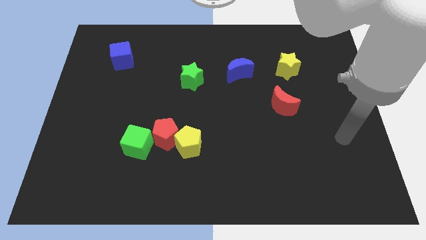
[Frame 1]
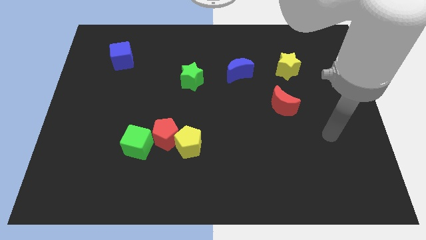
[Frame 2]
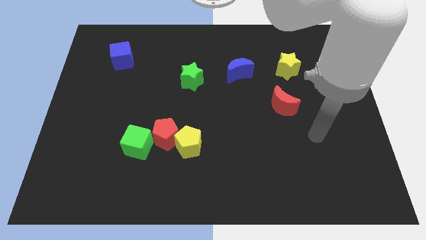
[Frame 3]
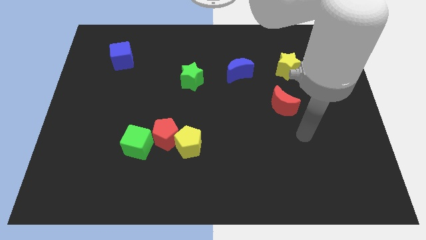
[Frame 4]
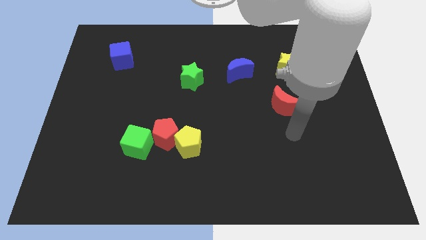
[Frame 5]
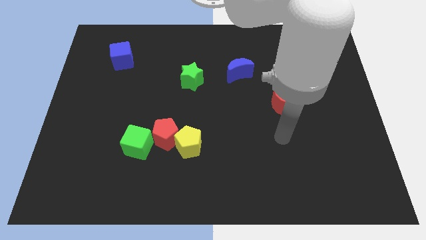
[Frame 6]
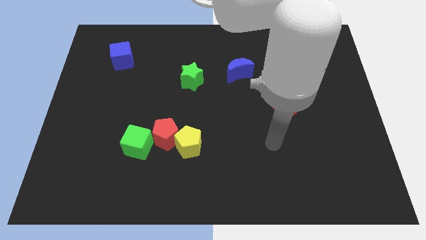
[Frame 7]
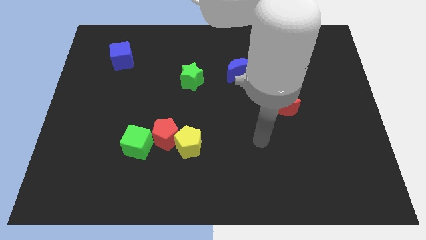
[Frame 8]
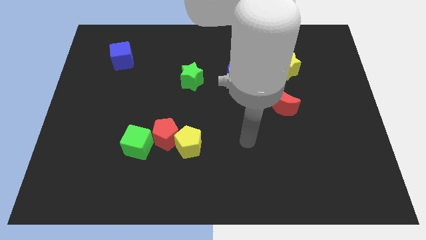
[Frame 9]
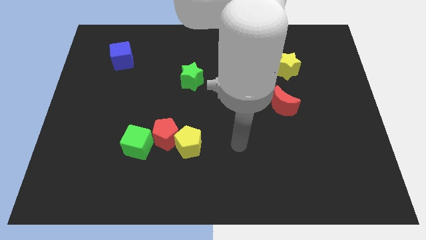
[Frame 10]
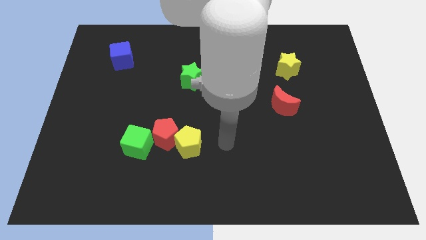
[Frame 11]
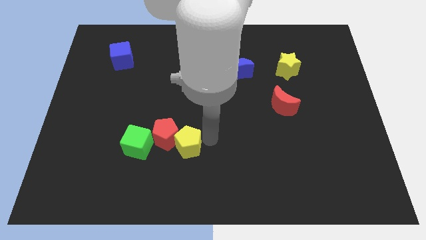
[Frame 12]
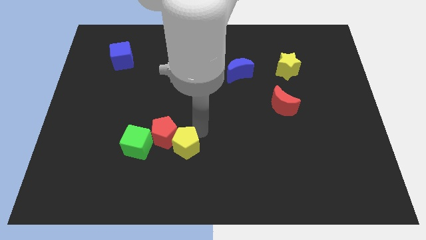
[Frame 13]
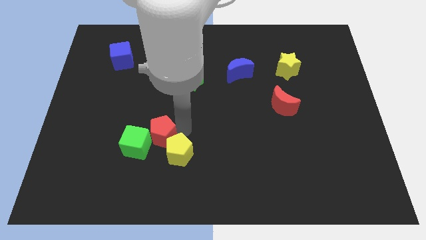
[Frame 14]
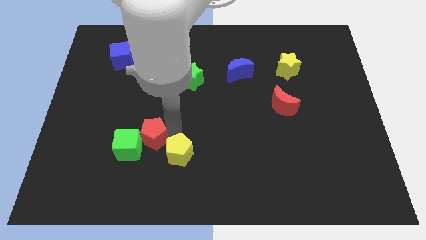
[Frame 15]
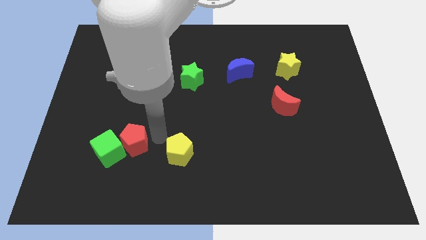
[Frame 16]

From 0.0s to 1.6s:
separate the yellow pentagon from the red pentagon

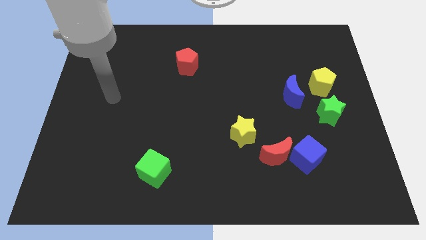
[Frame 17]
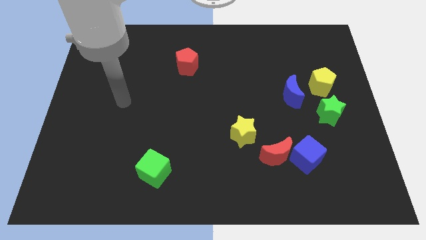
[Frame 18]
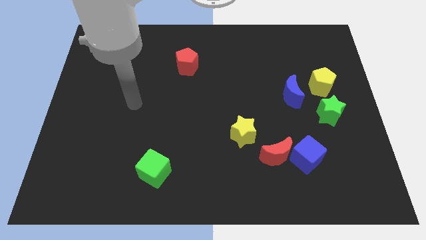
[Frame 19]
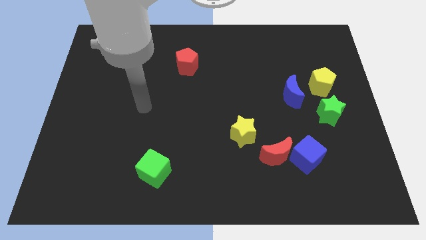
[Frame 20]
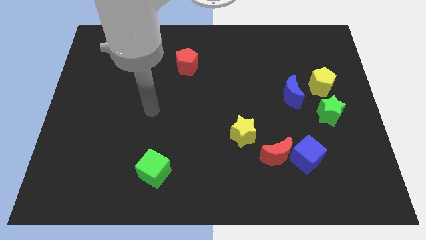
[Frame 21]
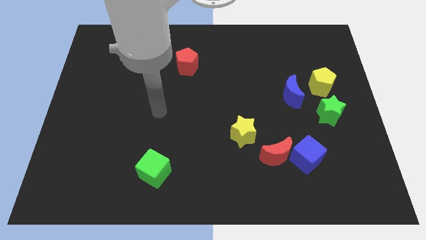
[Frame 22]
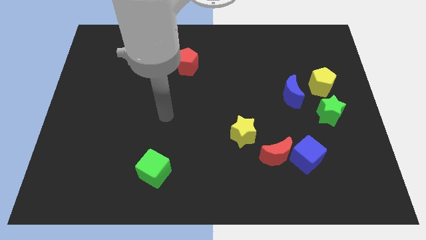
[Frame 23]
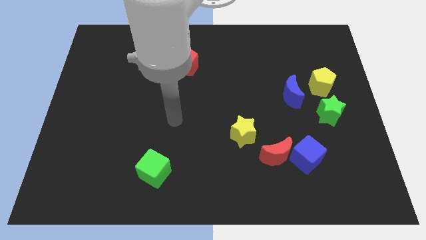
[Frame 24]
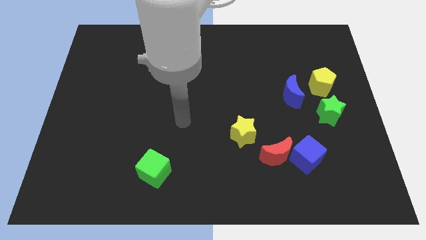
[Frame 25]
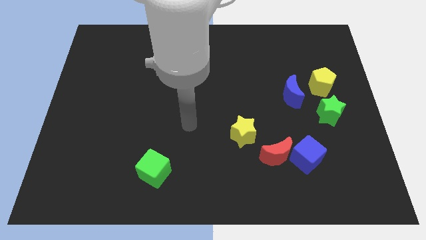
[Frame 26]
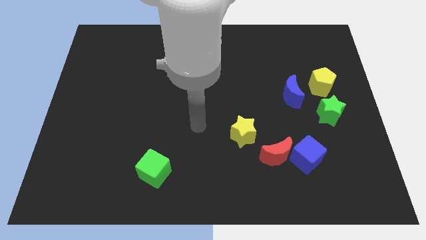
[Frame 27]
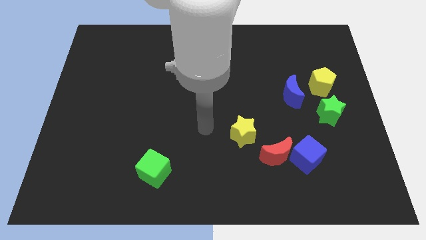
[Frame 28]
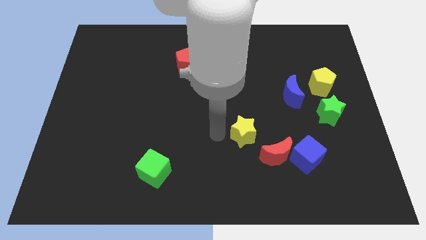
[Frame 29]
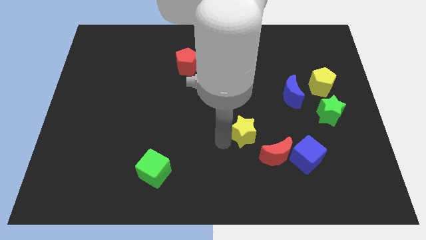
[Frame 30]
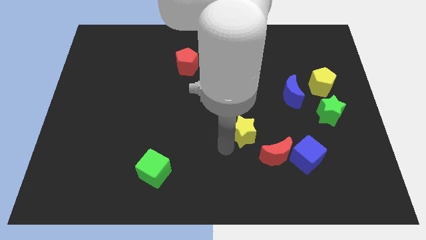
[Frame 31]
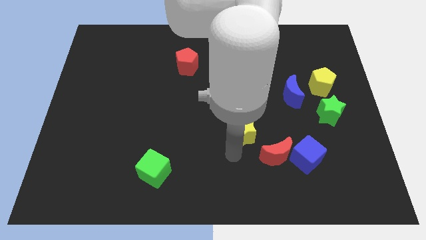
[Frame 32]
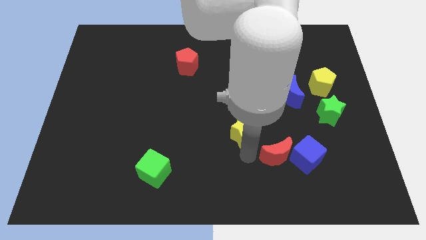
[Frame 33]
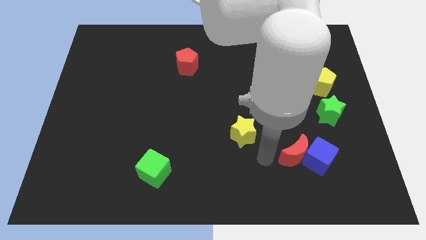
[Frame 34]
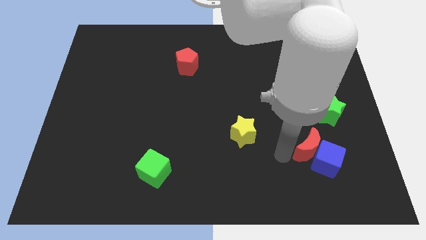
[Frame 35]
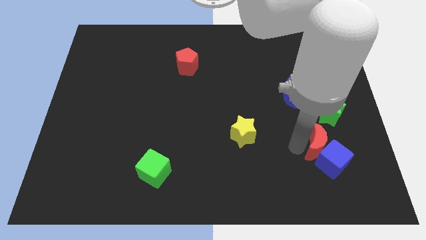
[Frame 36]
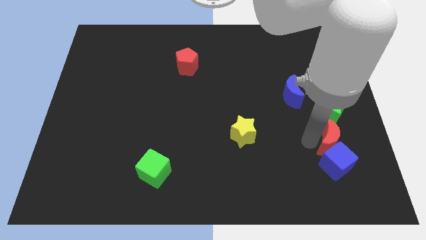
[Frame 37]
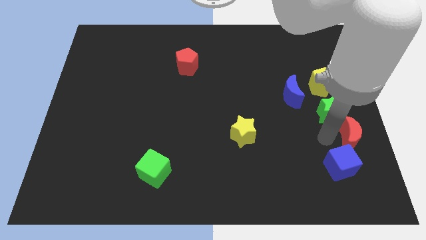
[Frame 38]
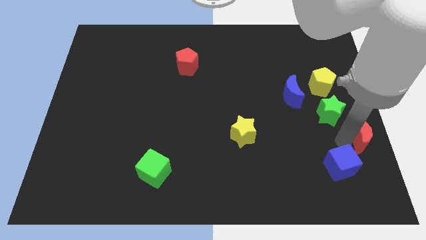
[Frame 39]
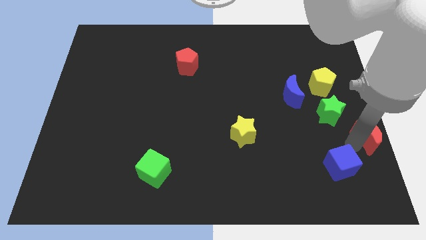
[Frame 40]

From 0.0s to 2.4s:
pull the blue cube apart from the red moon

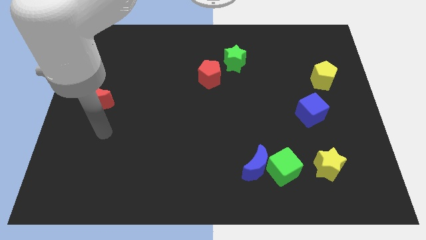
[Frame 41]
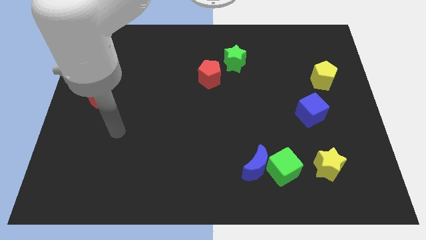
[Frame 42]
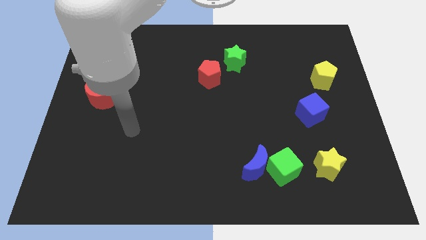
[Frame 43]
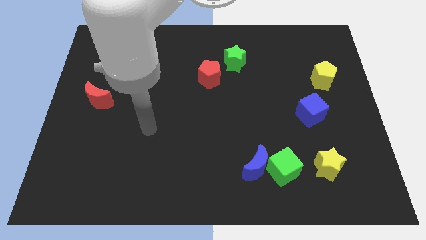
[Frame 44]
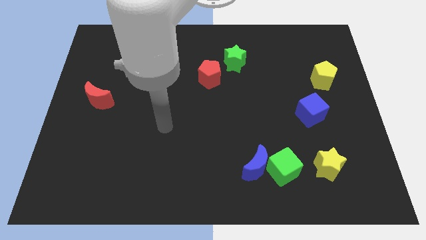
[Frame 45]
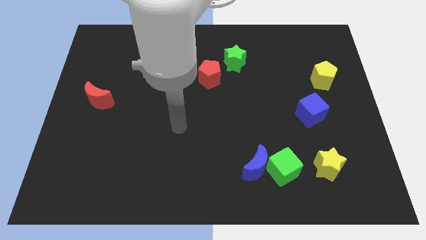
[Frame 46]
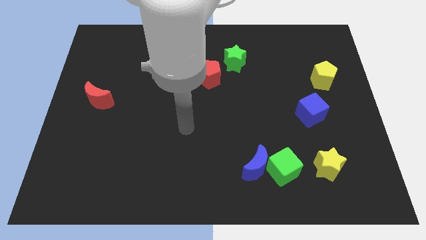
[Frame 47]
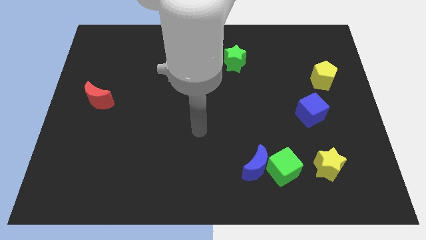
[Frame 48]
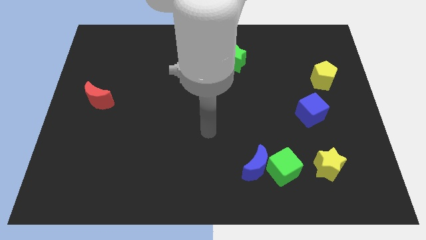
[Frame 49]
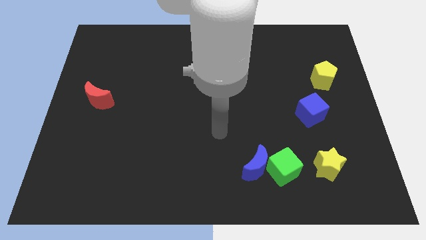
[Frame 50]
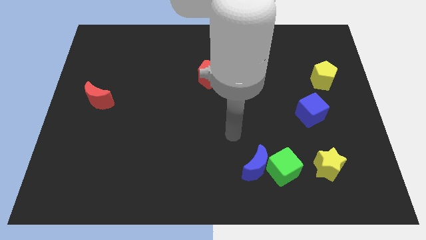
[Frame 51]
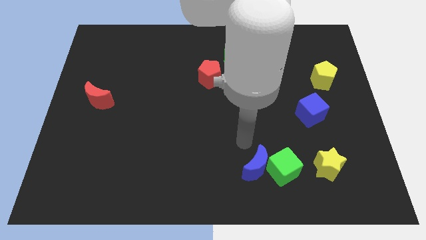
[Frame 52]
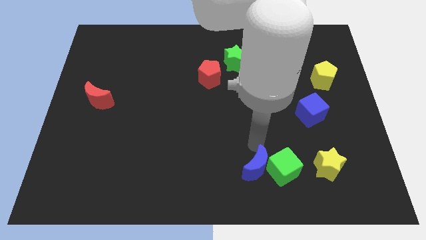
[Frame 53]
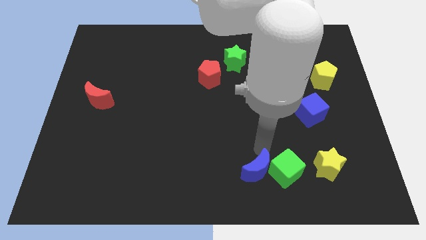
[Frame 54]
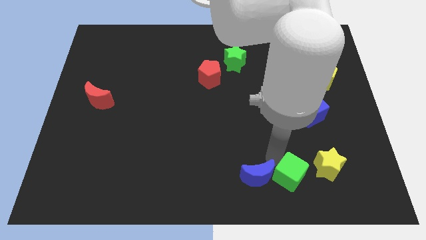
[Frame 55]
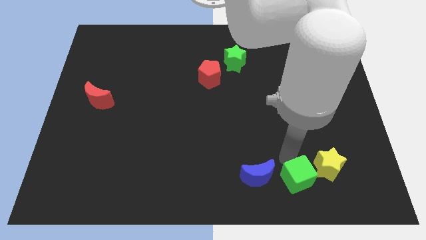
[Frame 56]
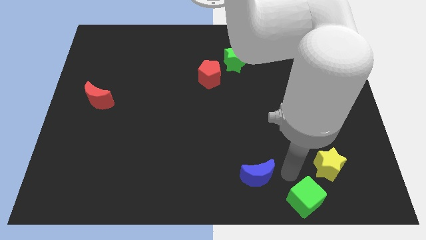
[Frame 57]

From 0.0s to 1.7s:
move the blue moon away from the green cube

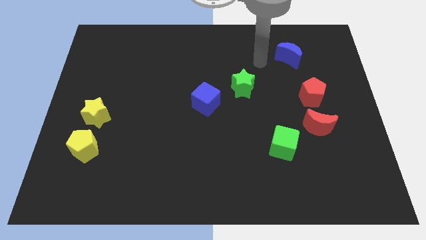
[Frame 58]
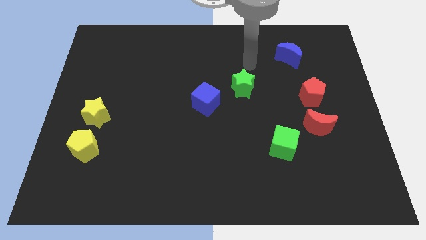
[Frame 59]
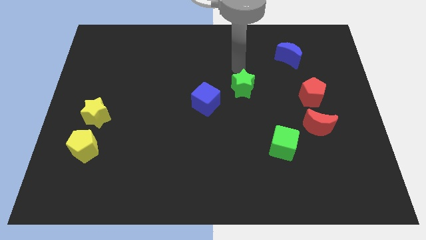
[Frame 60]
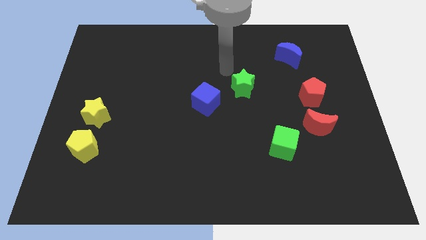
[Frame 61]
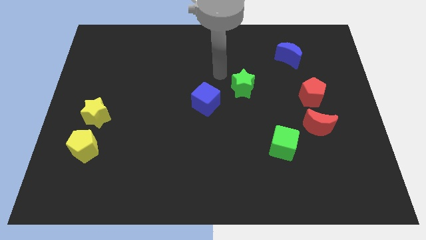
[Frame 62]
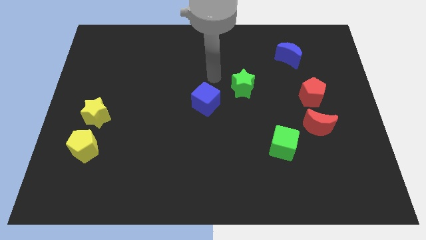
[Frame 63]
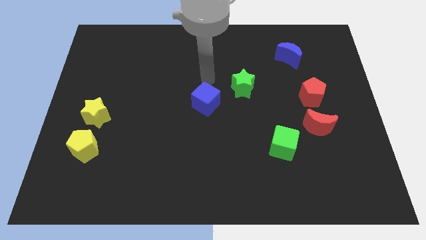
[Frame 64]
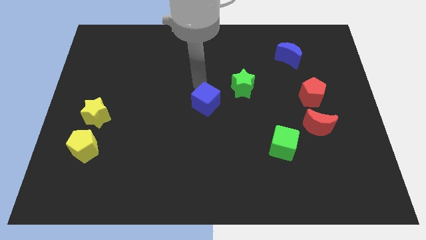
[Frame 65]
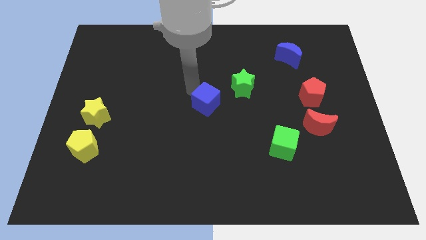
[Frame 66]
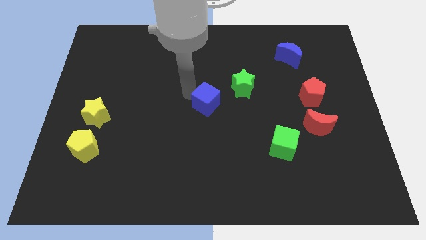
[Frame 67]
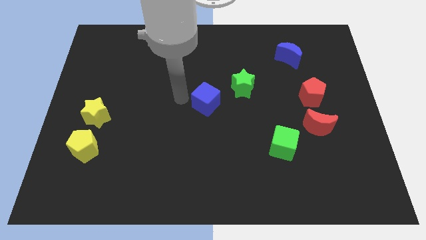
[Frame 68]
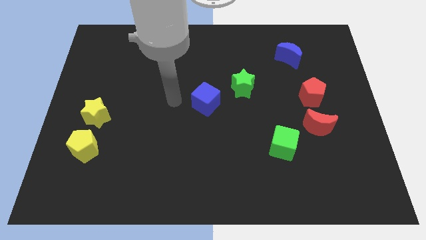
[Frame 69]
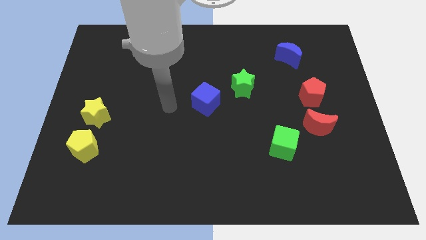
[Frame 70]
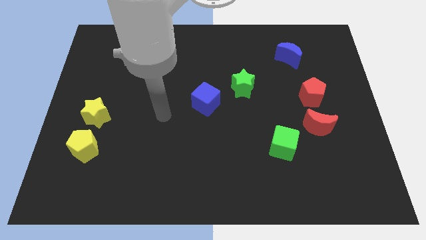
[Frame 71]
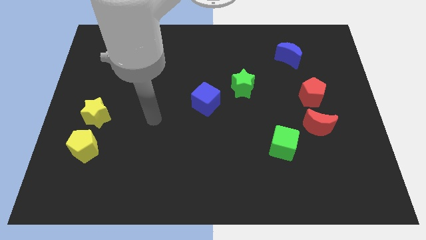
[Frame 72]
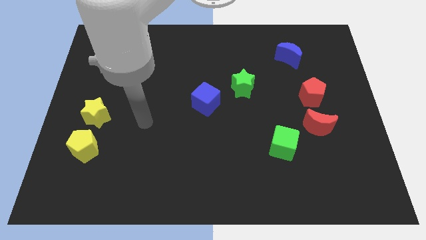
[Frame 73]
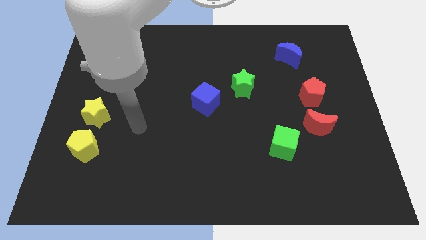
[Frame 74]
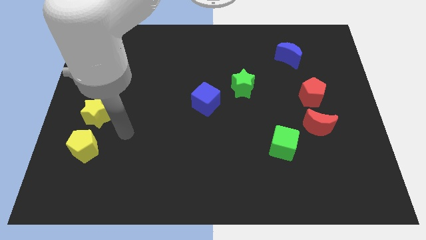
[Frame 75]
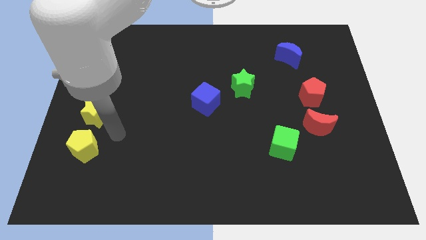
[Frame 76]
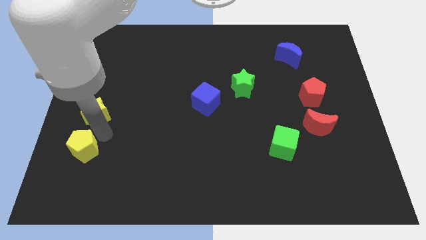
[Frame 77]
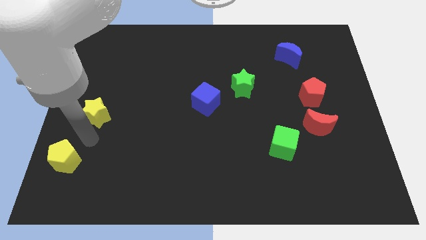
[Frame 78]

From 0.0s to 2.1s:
move the yellow star away from the yellow pentagon

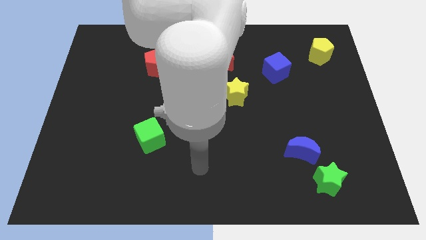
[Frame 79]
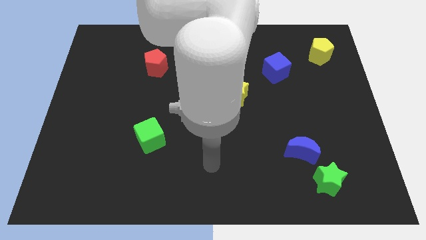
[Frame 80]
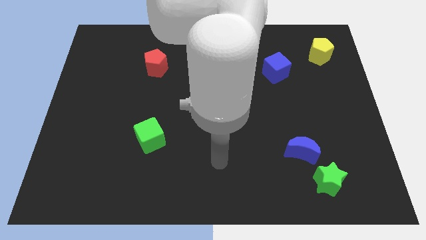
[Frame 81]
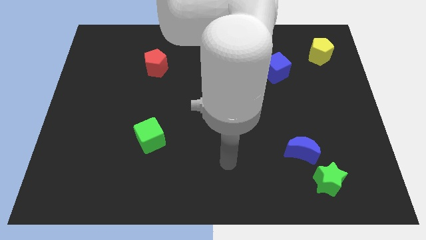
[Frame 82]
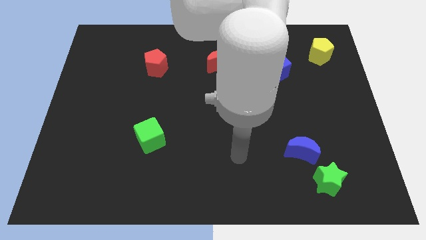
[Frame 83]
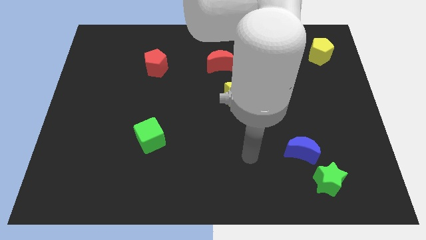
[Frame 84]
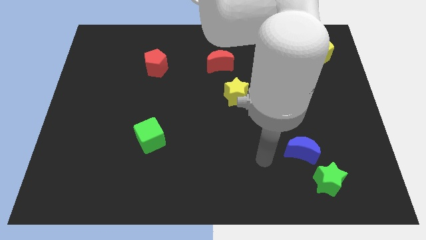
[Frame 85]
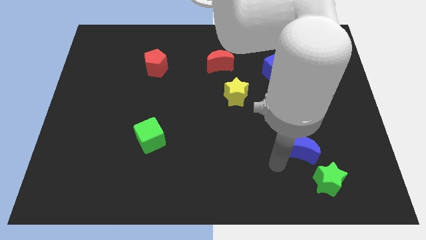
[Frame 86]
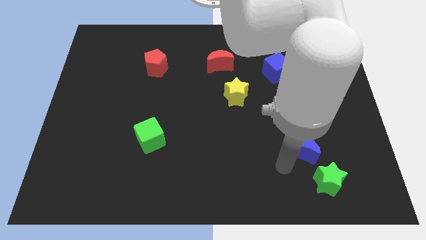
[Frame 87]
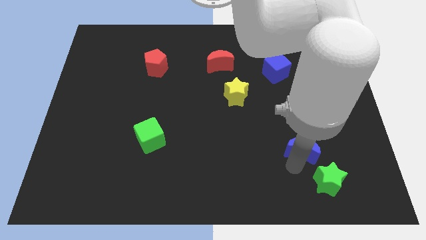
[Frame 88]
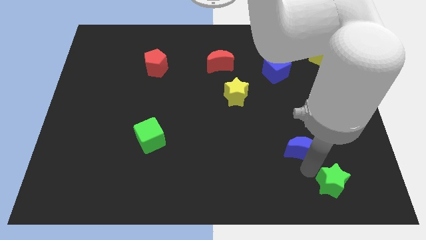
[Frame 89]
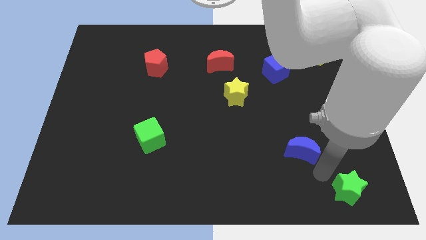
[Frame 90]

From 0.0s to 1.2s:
pull the blue moon apart from the green star

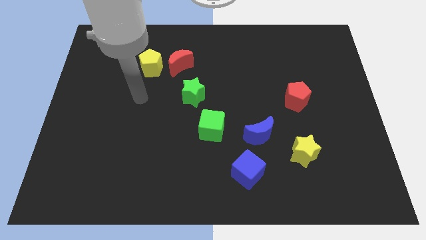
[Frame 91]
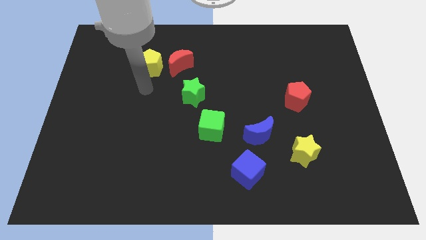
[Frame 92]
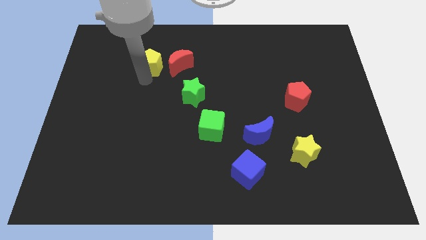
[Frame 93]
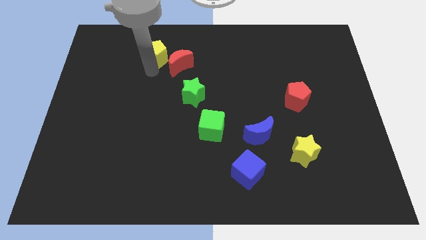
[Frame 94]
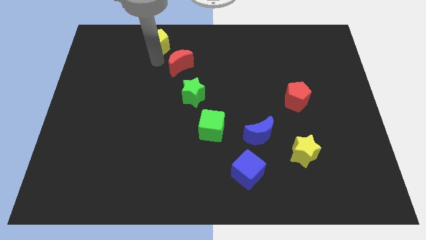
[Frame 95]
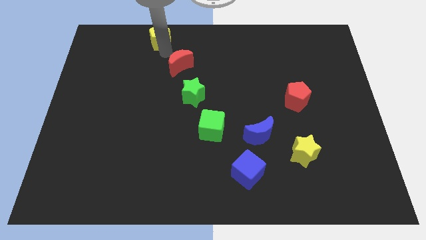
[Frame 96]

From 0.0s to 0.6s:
pull the red moon apart from the yellow pentagon
